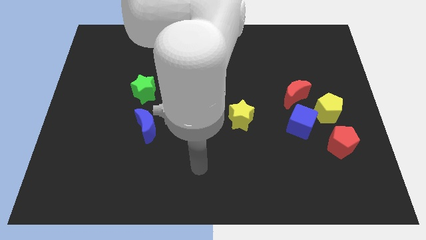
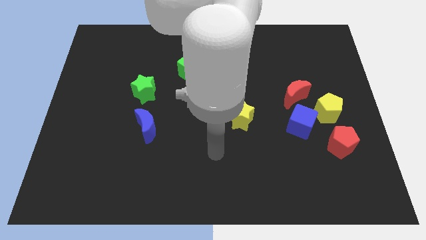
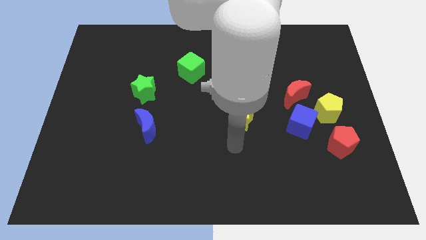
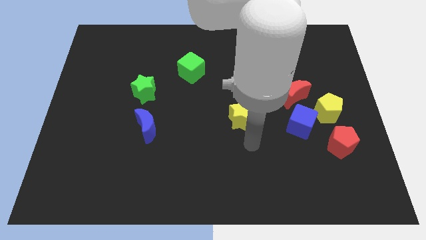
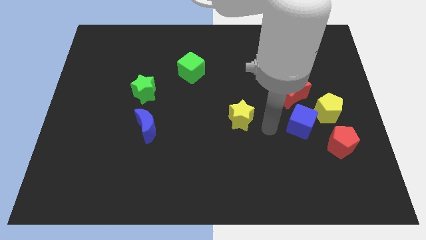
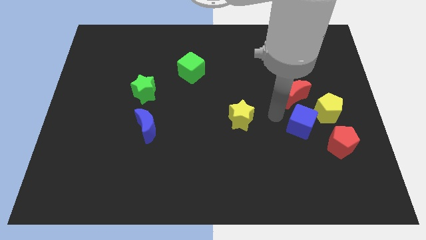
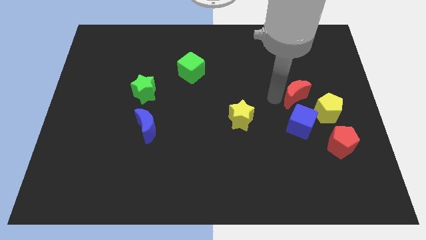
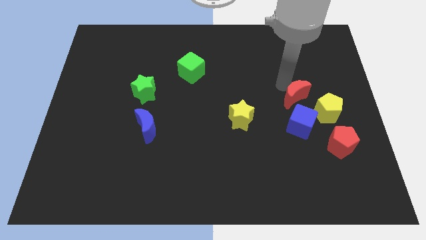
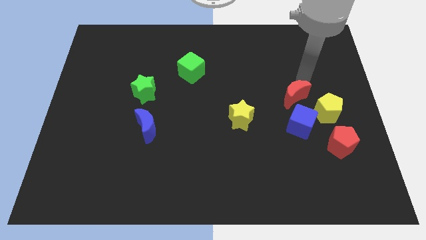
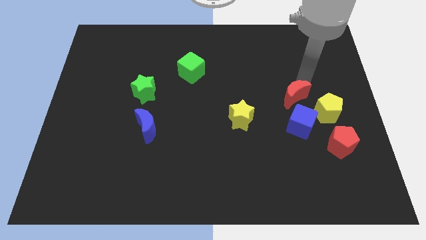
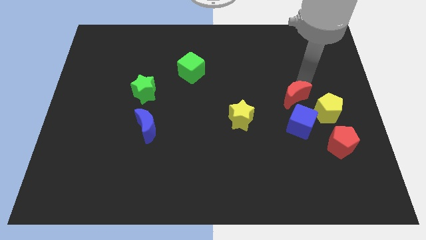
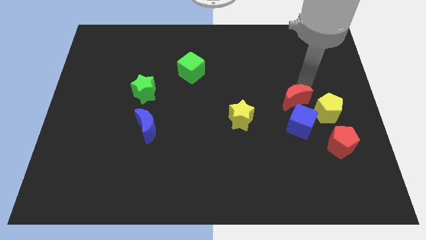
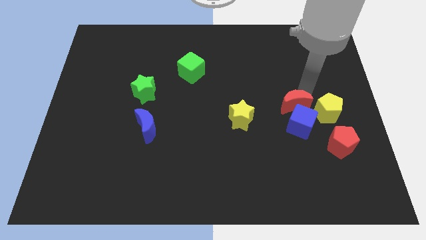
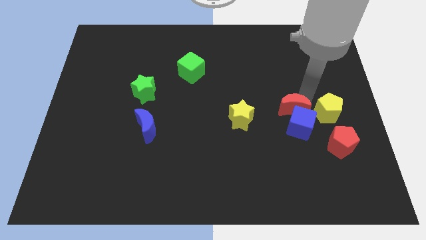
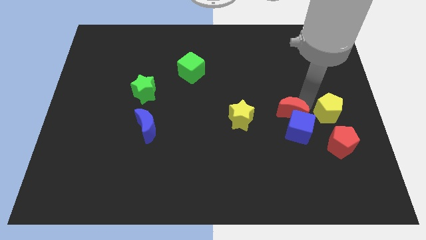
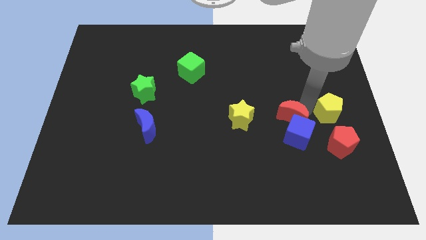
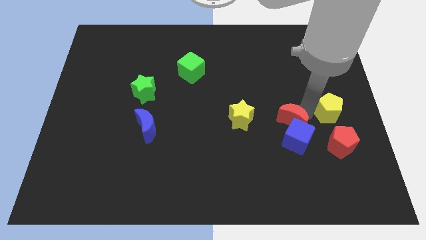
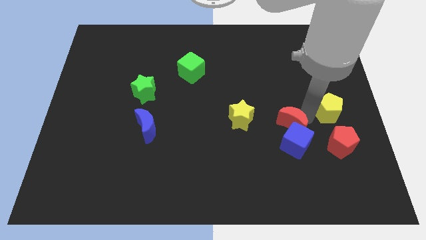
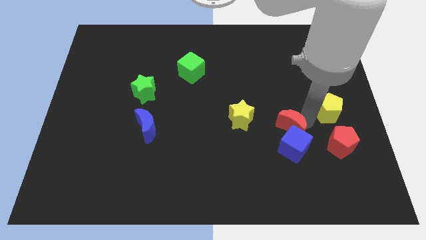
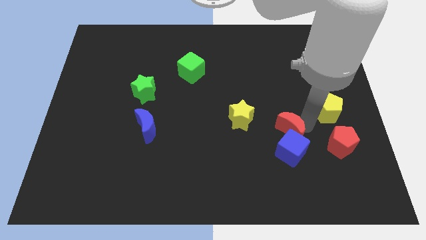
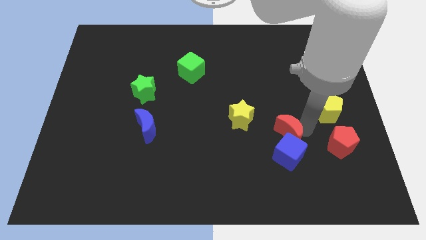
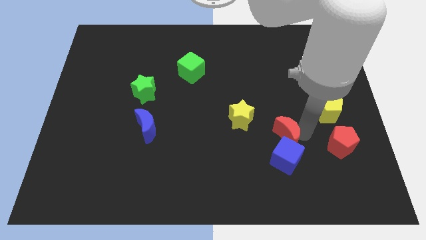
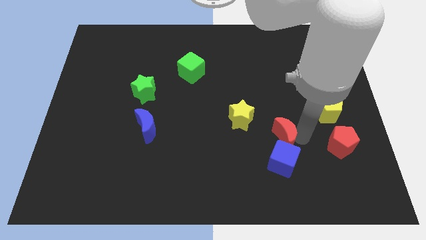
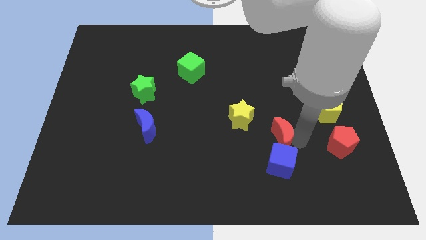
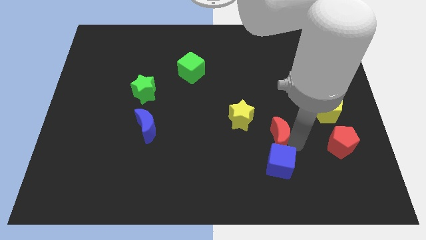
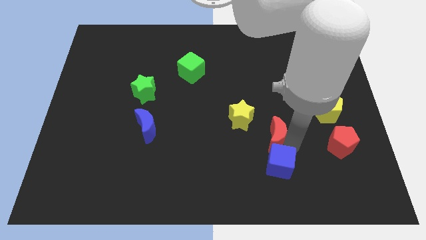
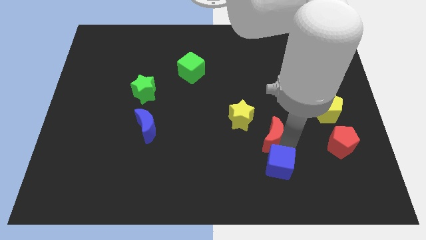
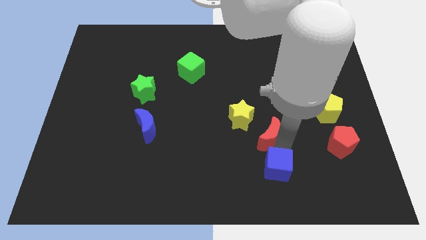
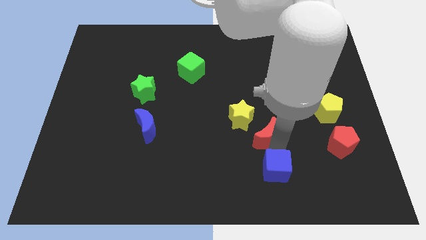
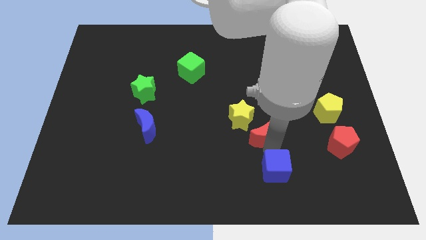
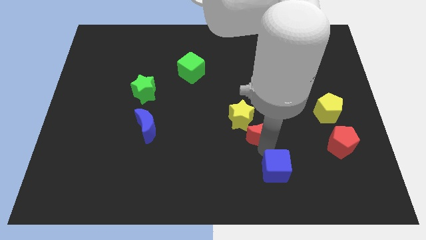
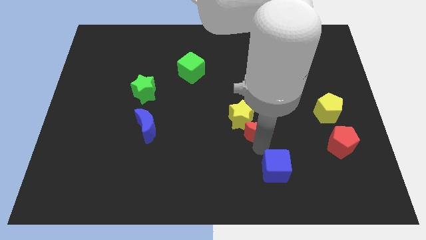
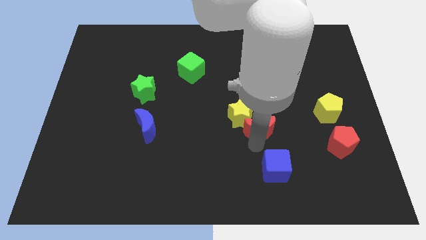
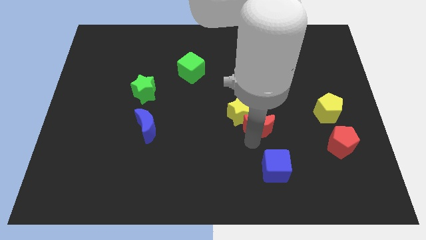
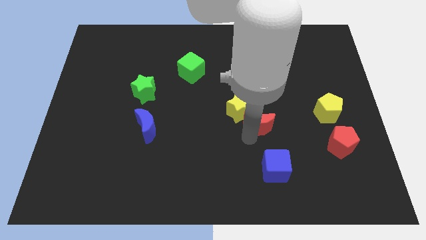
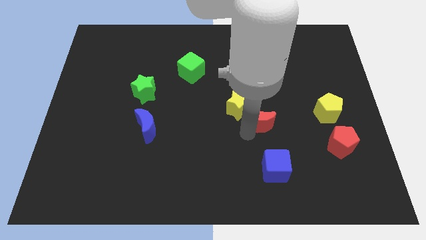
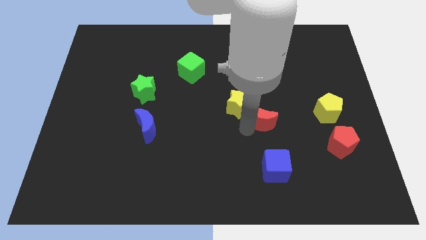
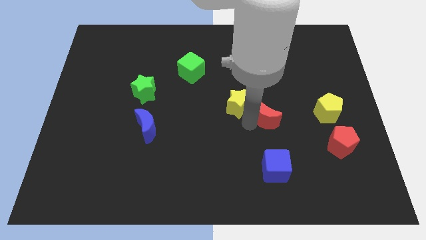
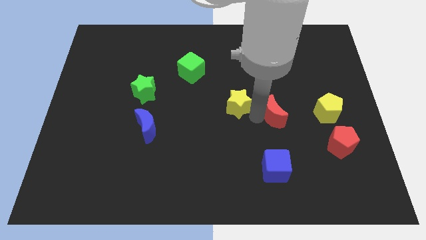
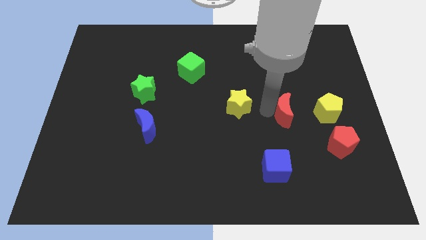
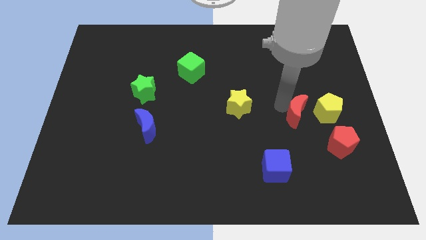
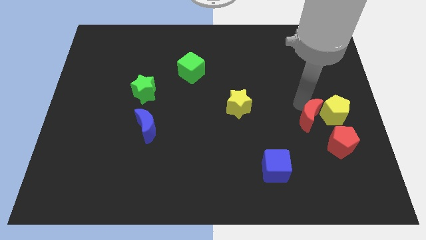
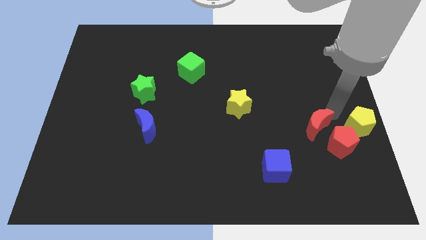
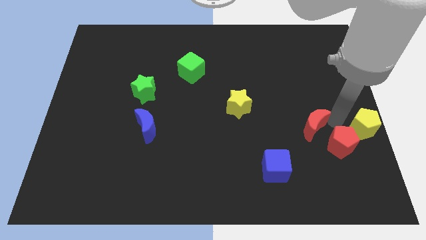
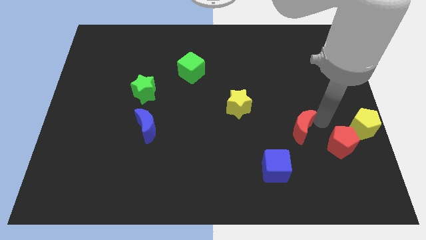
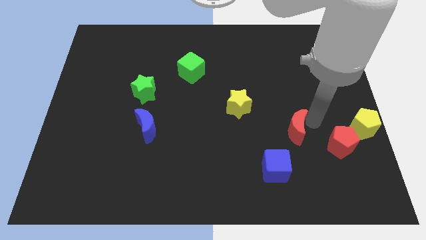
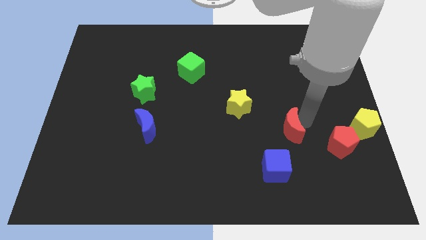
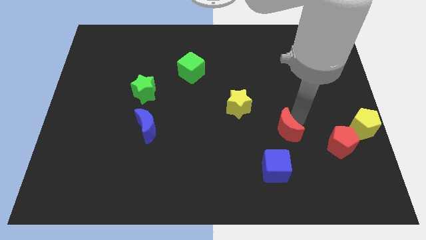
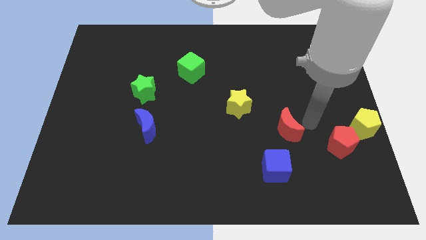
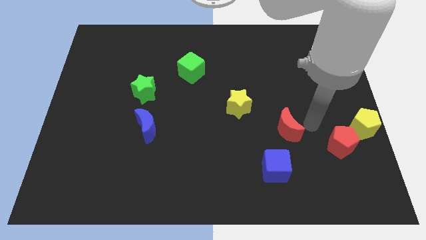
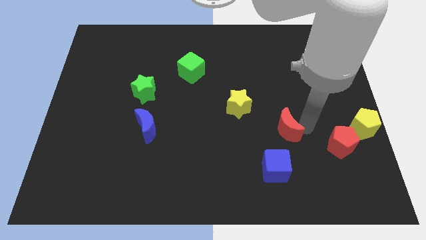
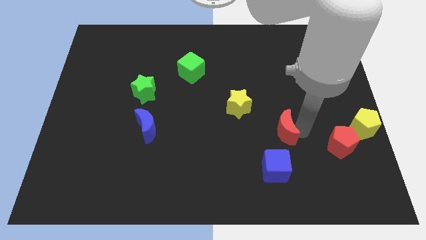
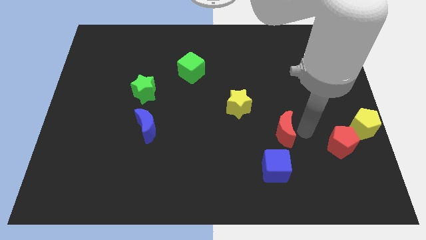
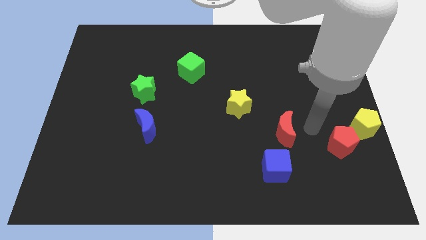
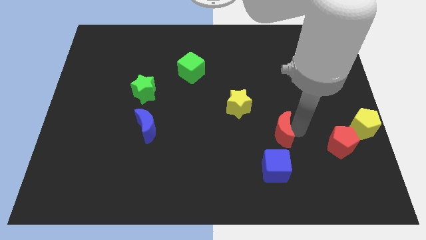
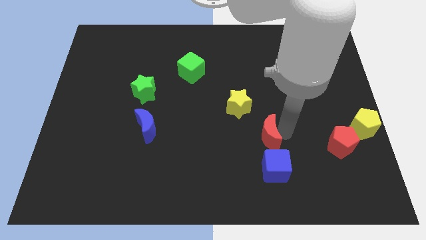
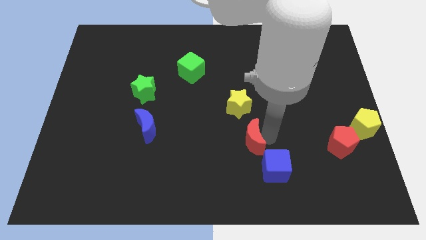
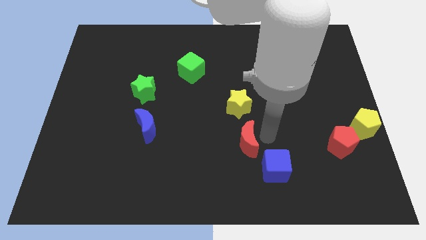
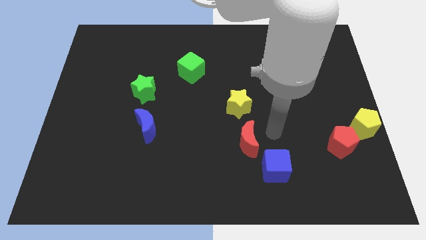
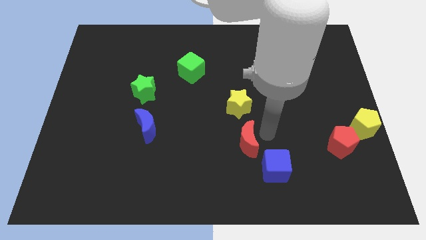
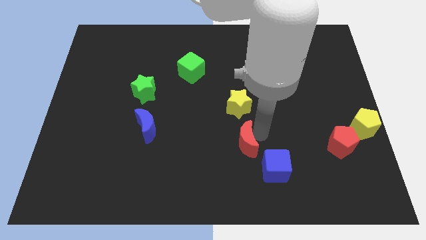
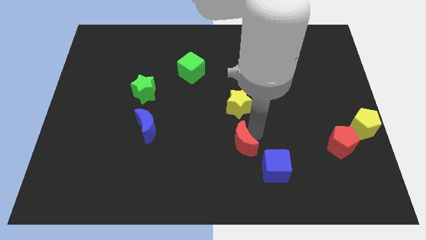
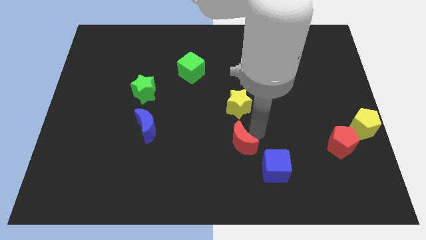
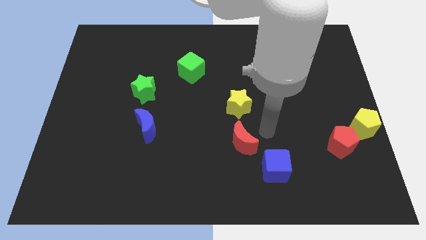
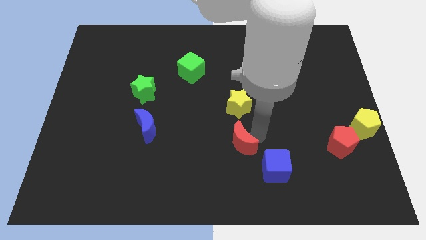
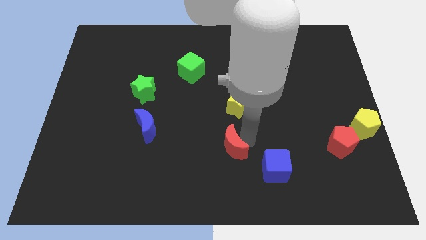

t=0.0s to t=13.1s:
push the red moon down and to the left diagonally

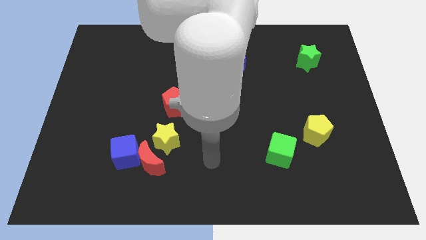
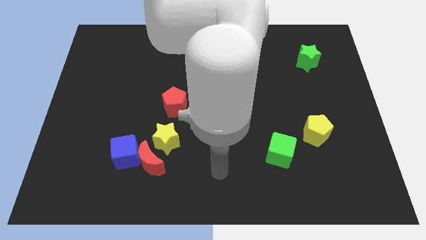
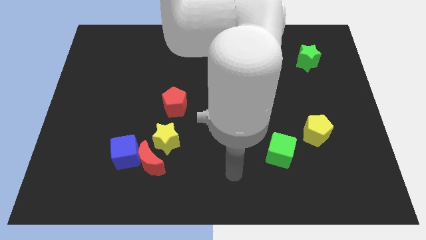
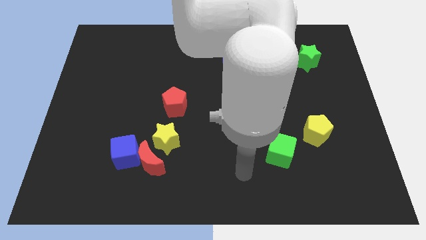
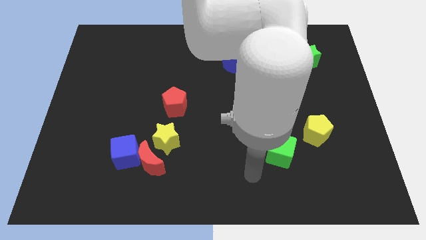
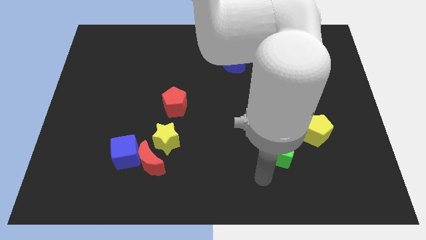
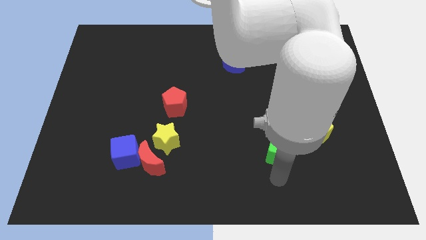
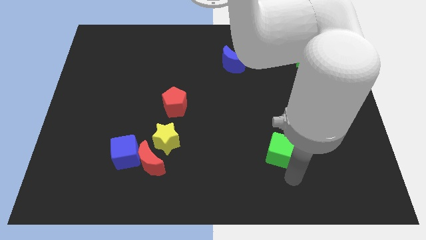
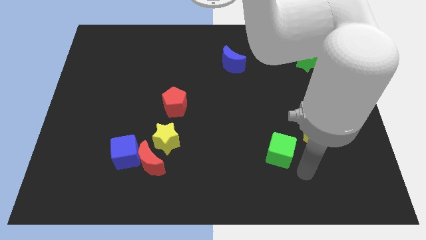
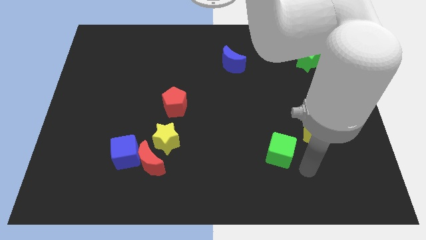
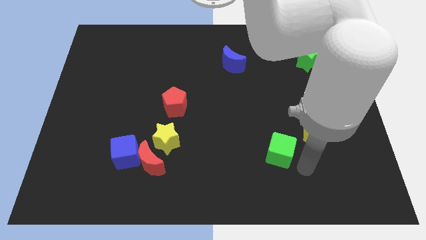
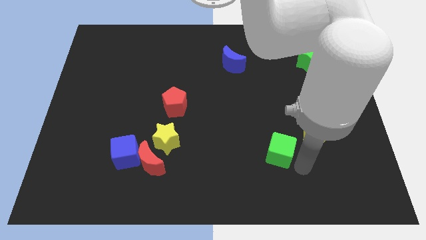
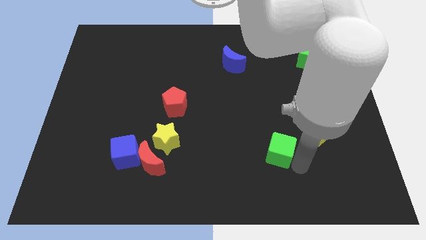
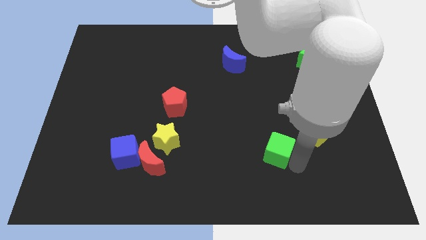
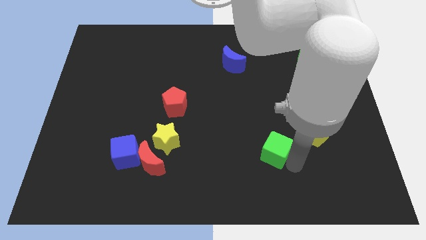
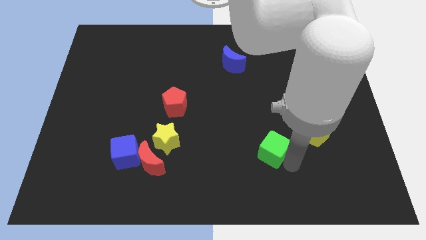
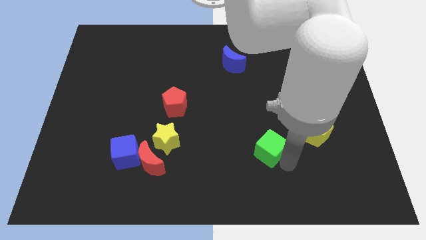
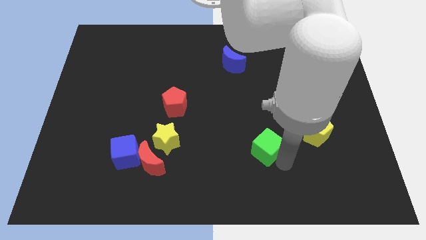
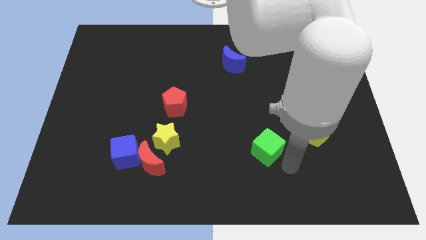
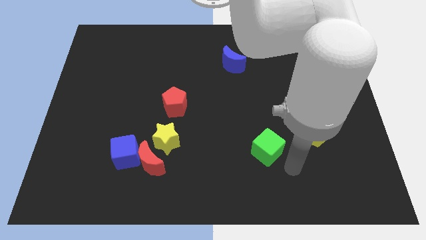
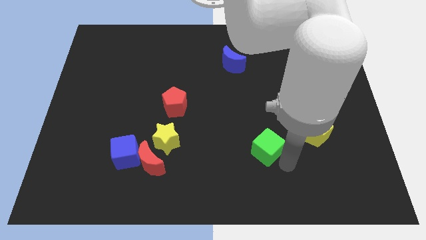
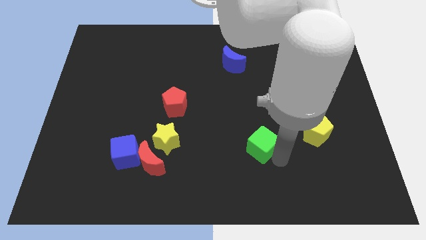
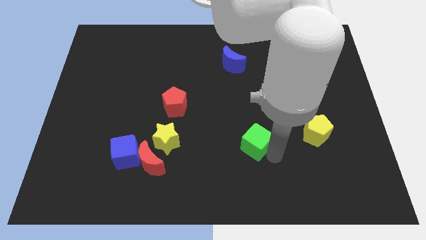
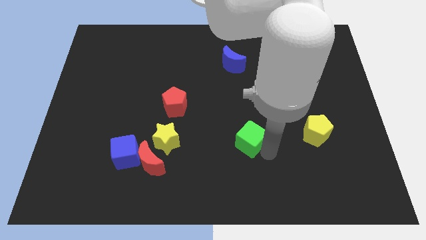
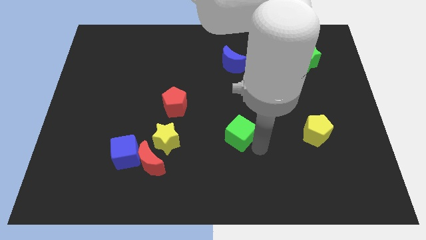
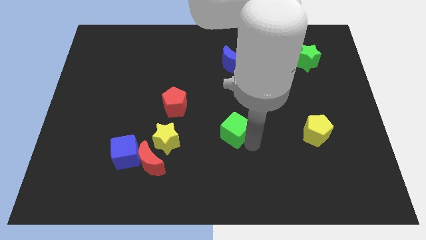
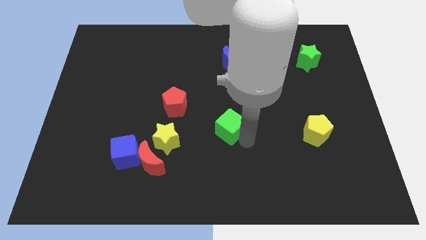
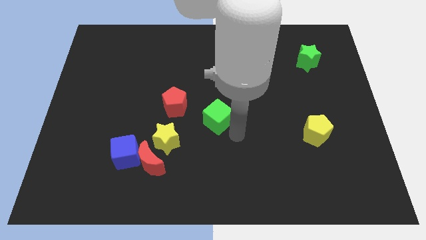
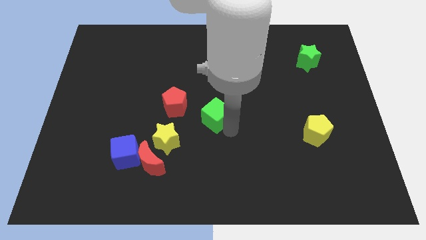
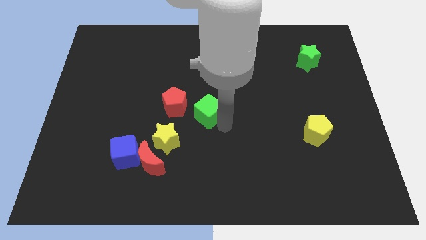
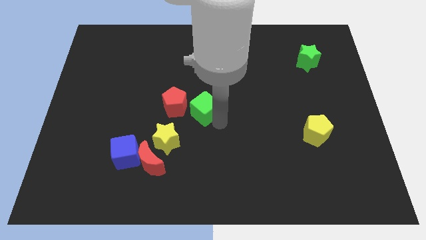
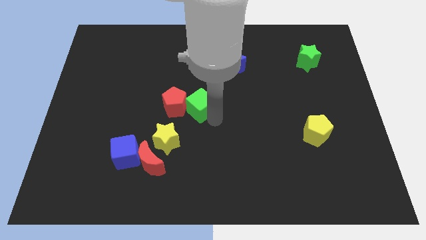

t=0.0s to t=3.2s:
move the green cube diagonally up and left
